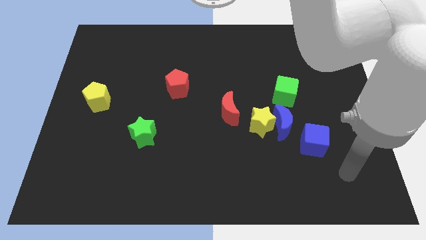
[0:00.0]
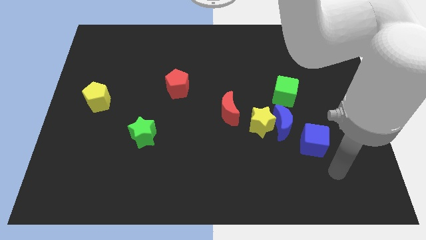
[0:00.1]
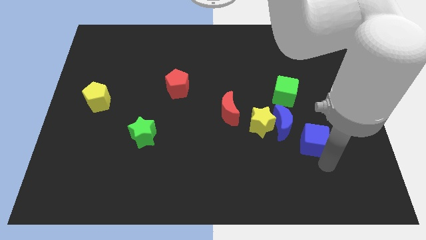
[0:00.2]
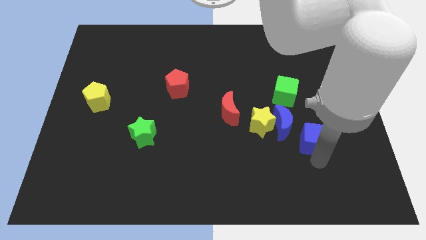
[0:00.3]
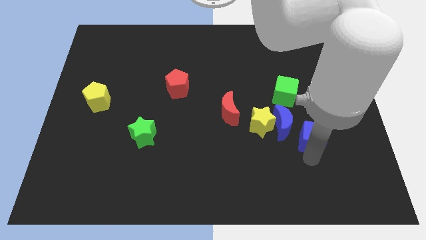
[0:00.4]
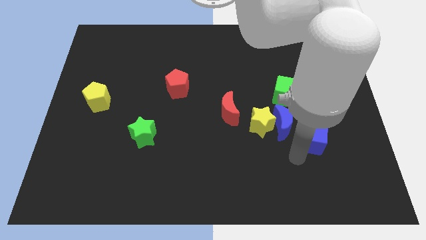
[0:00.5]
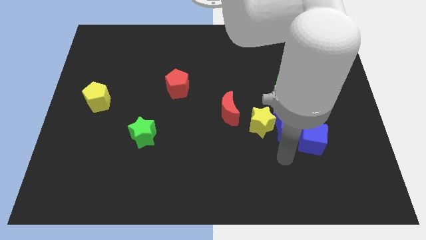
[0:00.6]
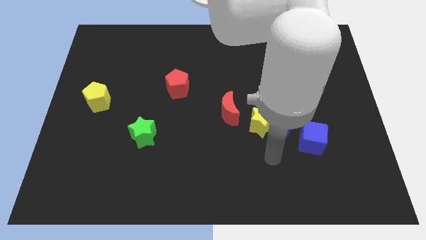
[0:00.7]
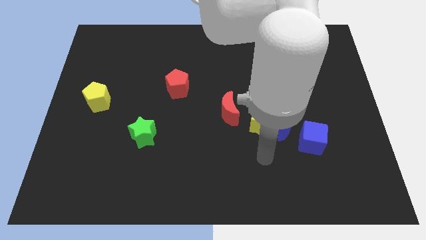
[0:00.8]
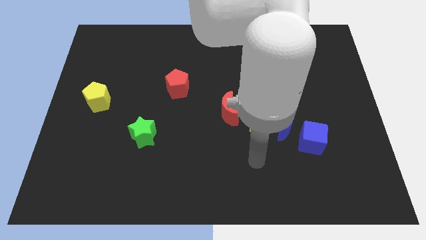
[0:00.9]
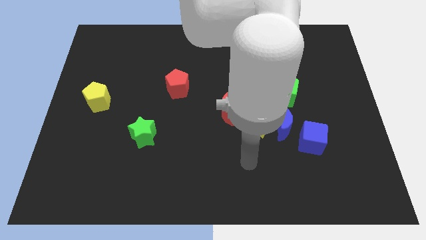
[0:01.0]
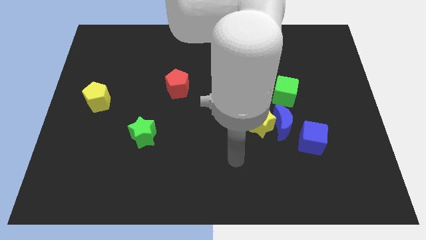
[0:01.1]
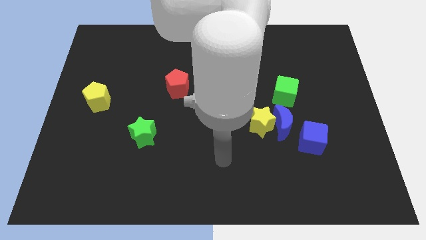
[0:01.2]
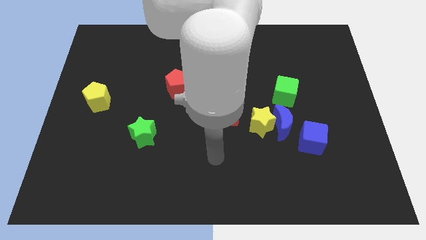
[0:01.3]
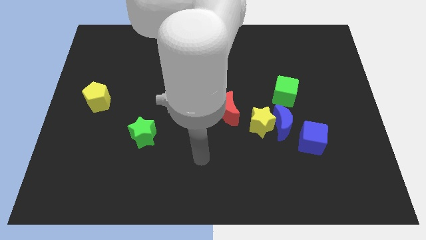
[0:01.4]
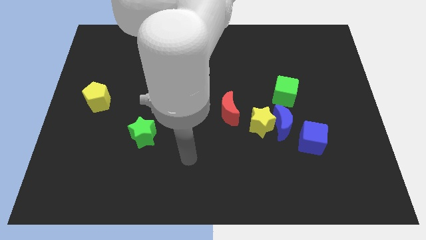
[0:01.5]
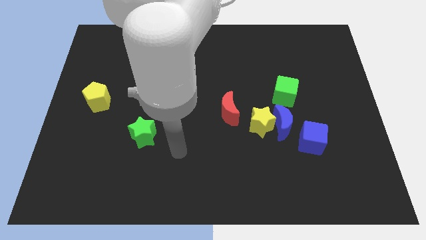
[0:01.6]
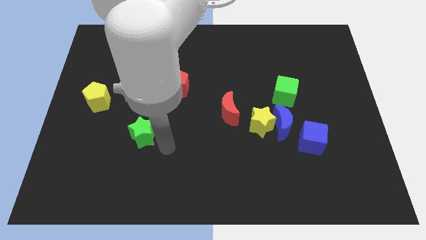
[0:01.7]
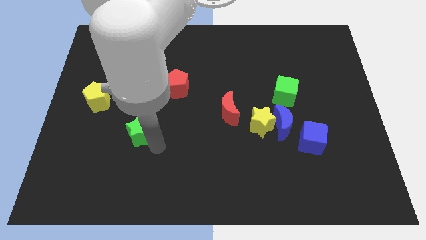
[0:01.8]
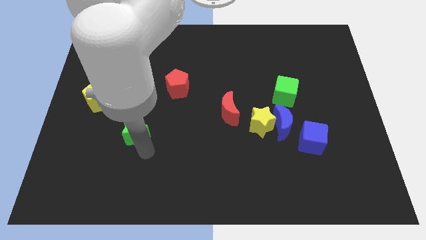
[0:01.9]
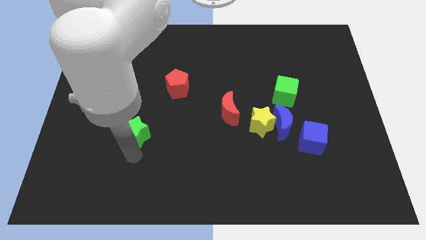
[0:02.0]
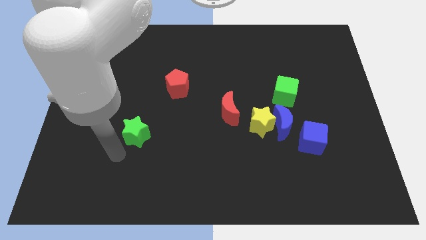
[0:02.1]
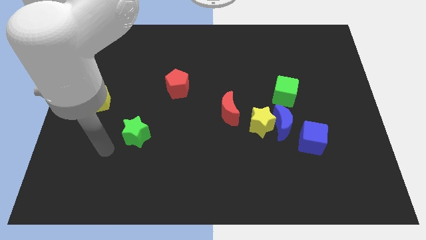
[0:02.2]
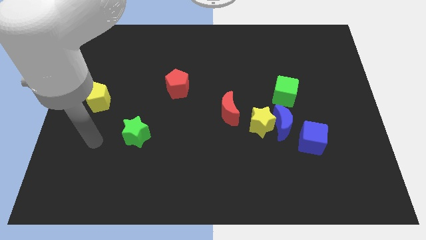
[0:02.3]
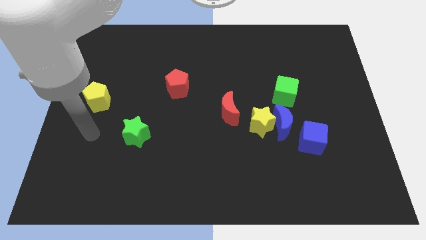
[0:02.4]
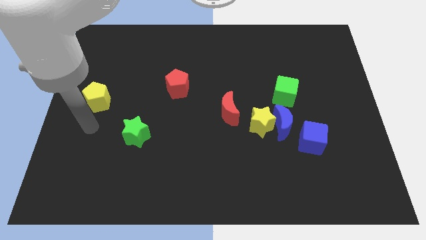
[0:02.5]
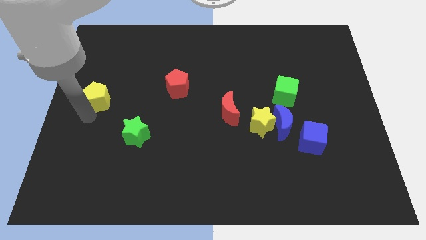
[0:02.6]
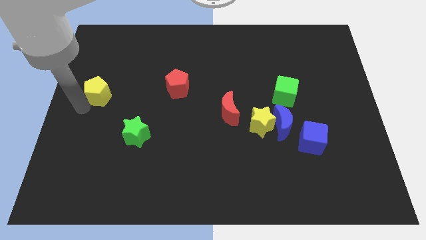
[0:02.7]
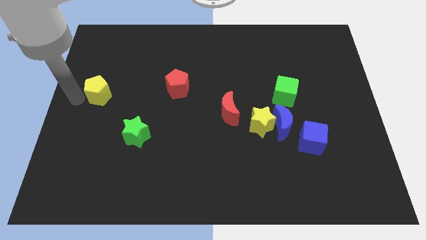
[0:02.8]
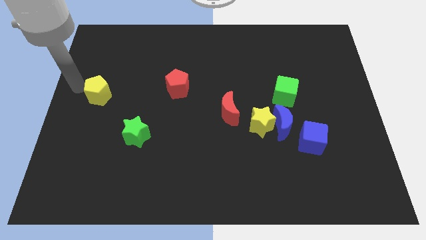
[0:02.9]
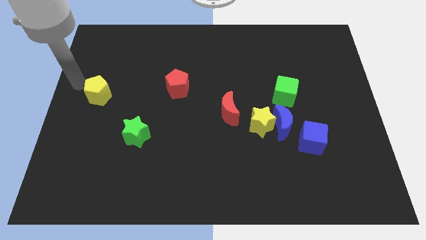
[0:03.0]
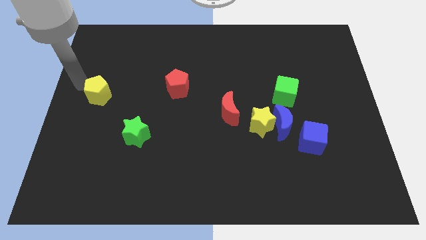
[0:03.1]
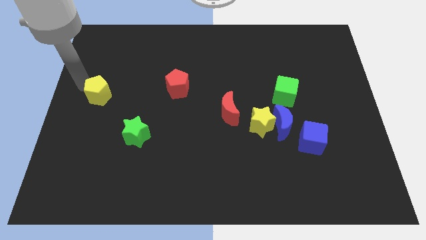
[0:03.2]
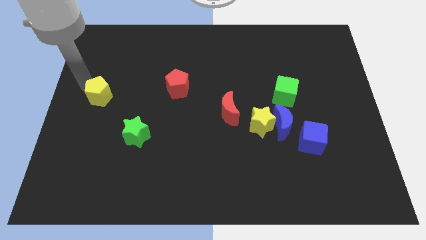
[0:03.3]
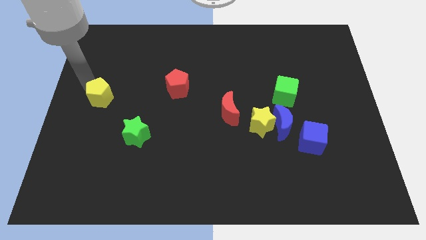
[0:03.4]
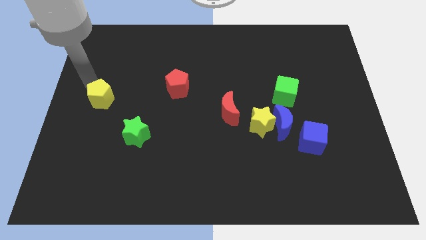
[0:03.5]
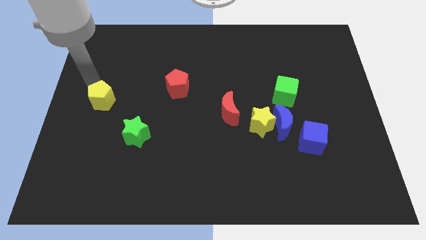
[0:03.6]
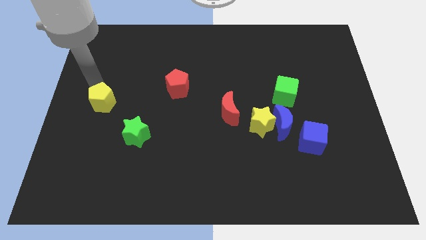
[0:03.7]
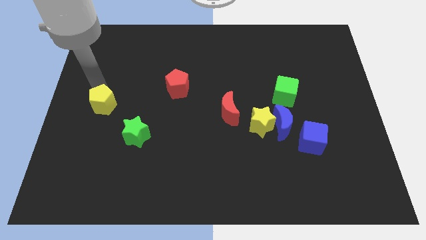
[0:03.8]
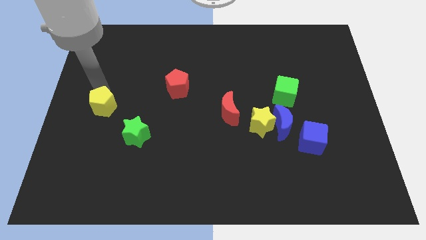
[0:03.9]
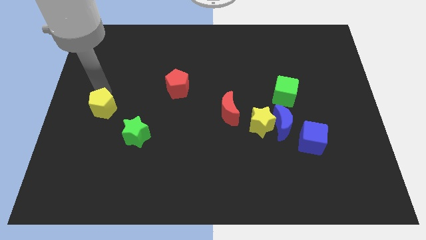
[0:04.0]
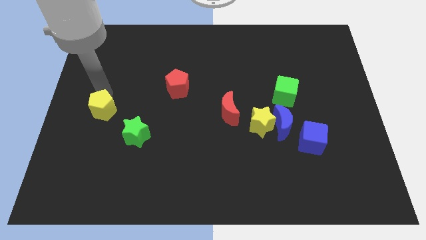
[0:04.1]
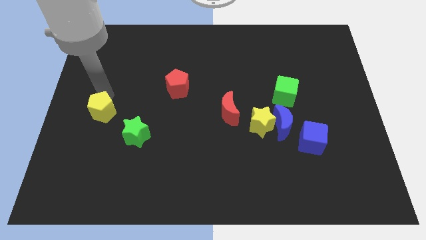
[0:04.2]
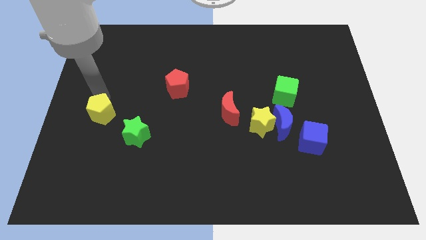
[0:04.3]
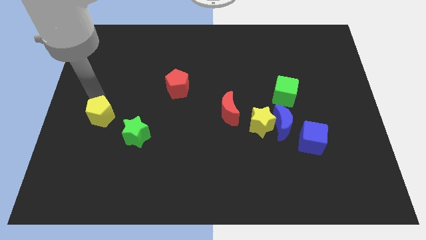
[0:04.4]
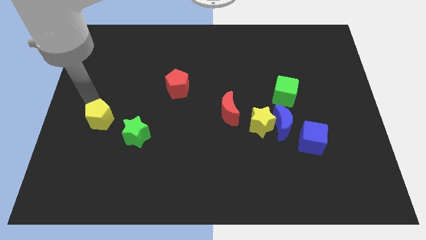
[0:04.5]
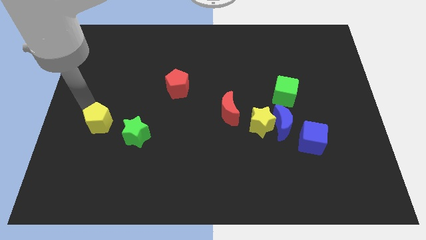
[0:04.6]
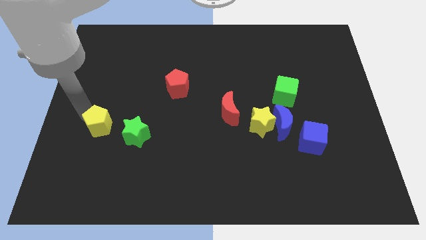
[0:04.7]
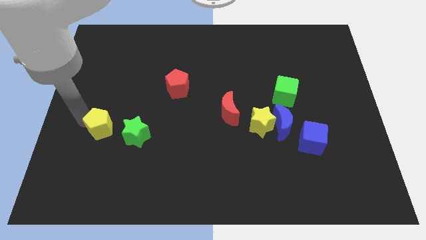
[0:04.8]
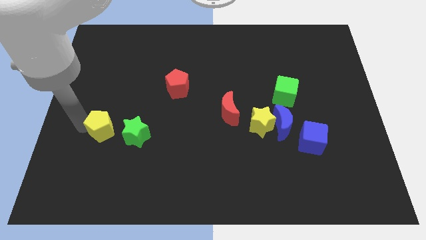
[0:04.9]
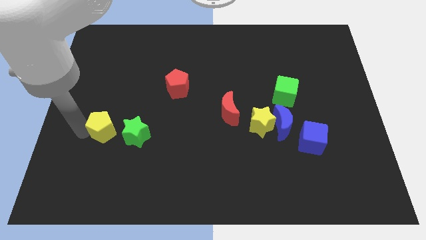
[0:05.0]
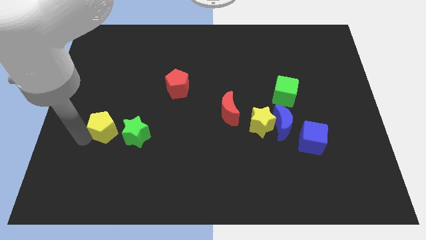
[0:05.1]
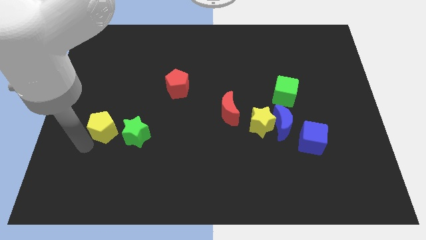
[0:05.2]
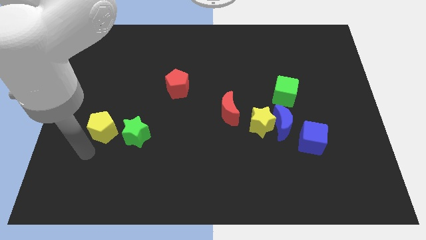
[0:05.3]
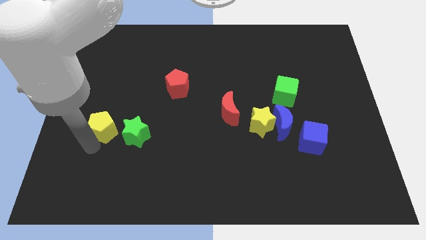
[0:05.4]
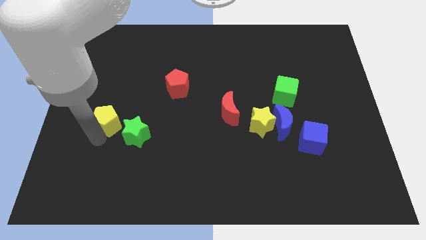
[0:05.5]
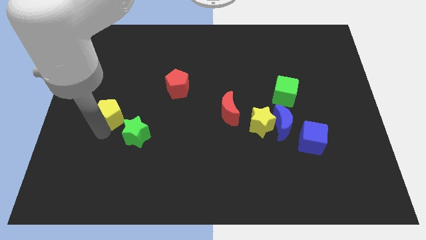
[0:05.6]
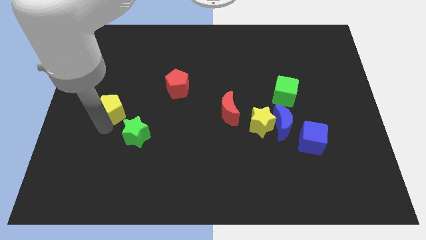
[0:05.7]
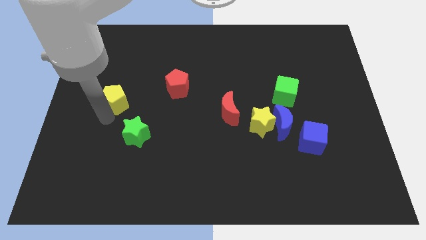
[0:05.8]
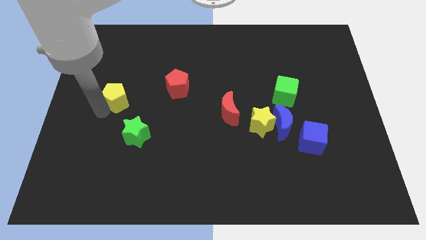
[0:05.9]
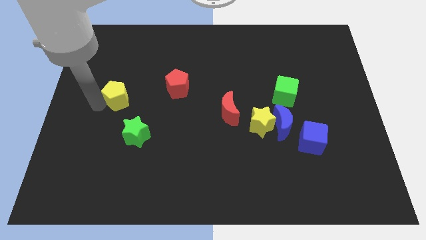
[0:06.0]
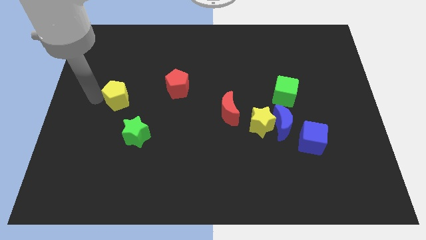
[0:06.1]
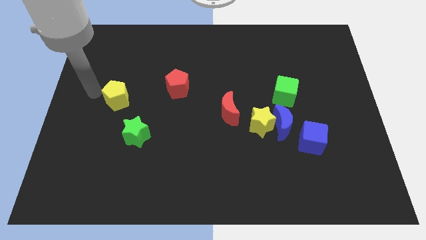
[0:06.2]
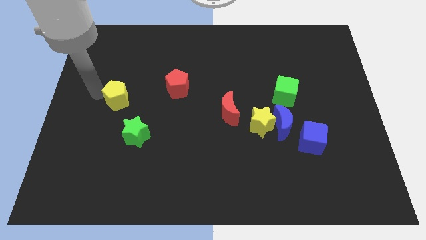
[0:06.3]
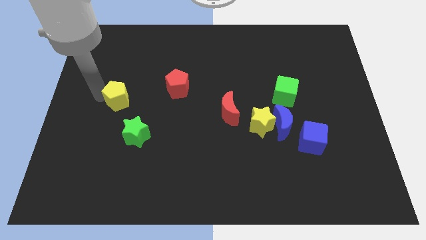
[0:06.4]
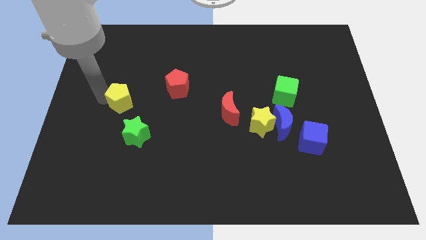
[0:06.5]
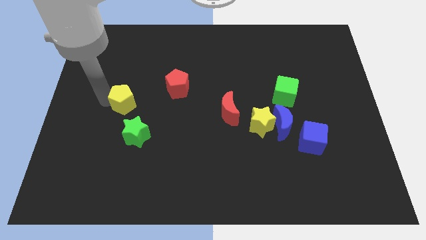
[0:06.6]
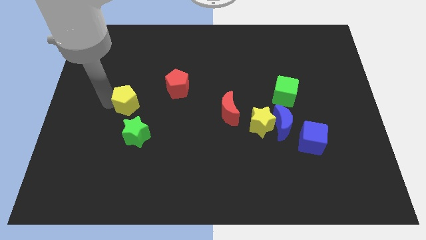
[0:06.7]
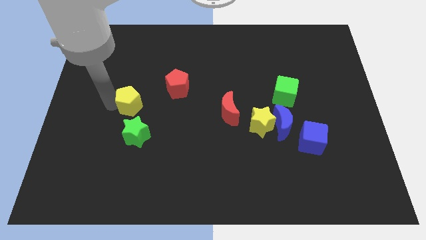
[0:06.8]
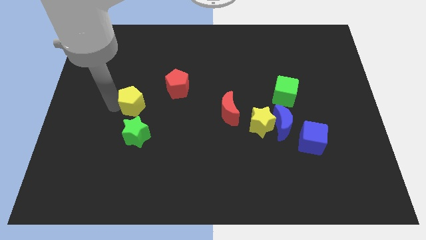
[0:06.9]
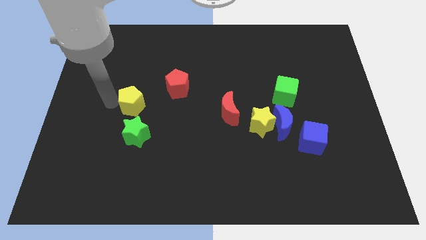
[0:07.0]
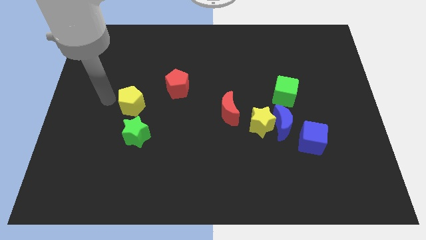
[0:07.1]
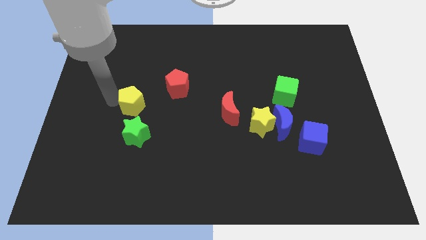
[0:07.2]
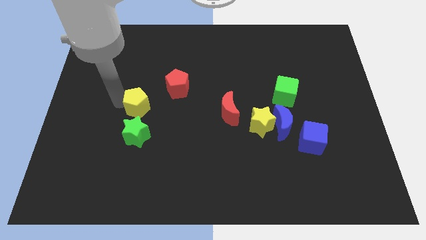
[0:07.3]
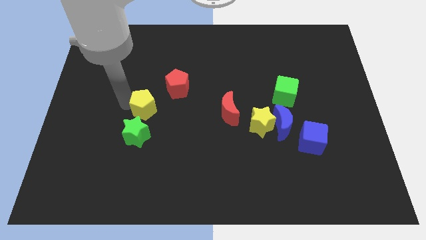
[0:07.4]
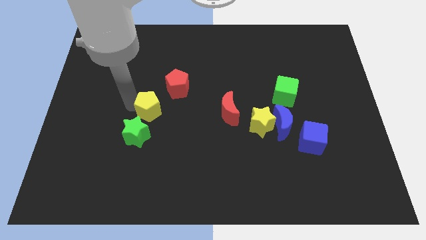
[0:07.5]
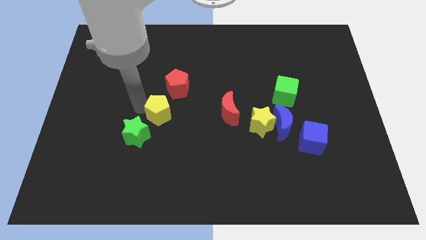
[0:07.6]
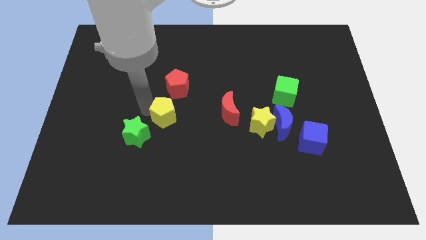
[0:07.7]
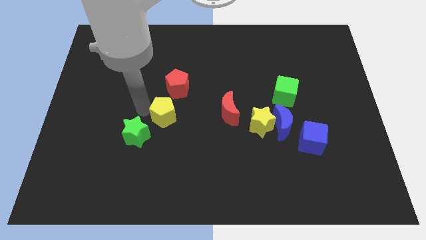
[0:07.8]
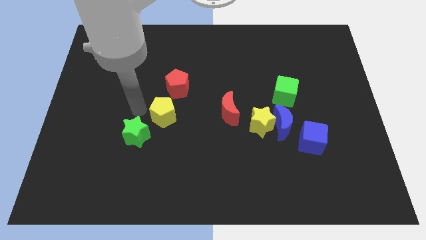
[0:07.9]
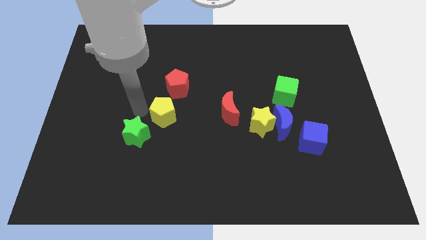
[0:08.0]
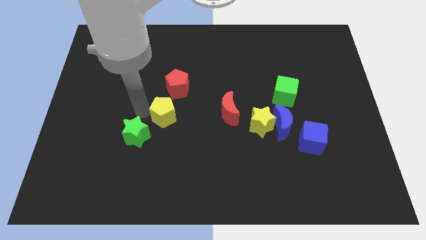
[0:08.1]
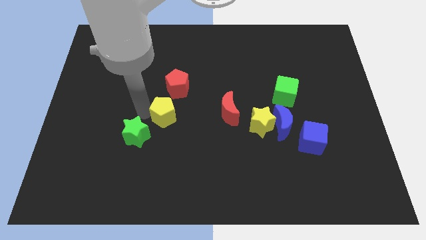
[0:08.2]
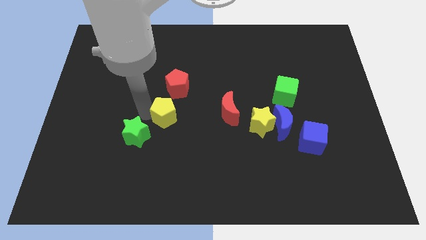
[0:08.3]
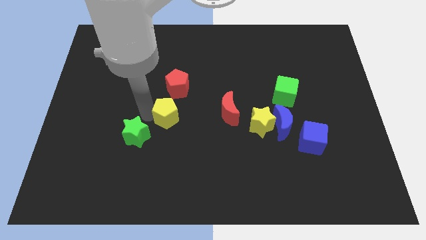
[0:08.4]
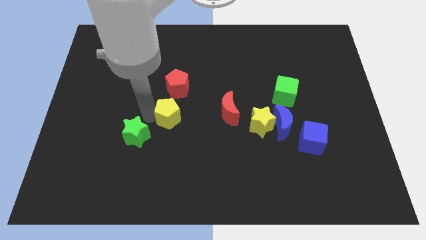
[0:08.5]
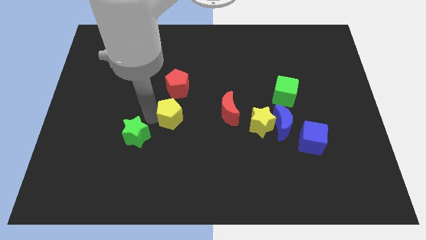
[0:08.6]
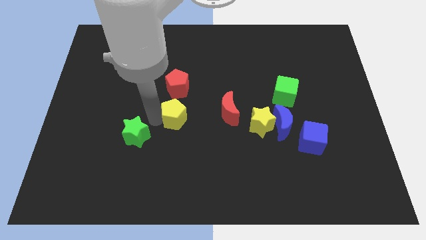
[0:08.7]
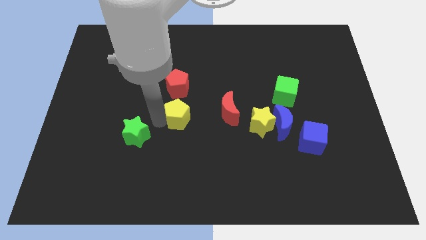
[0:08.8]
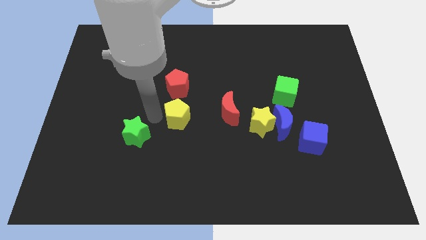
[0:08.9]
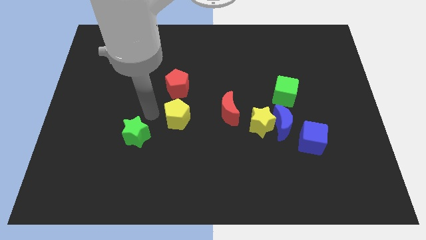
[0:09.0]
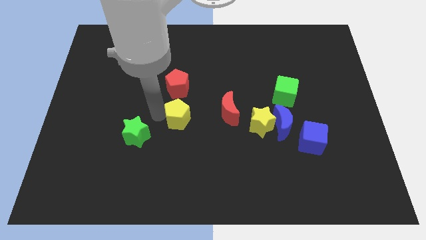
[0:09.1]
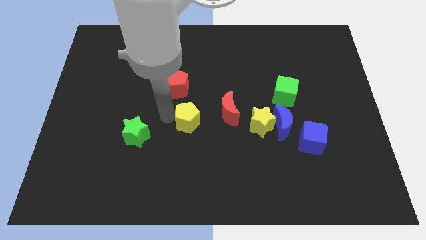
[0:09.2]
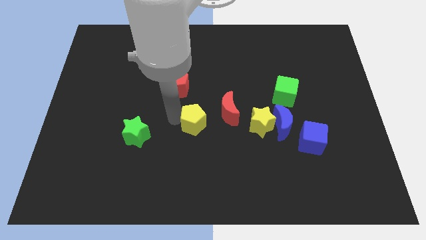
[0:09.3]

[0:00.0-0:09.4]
put the yellow pentagon to the left of the yellow star
